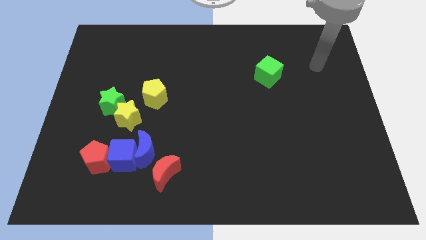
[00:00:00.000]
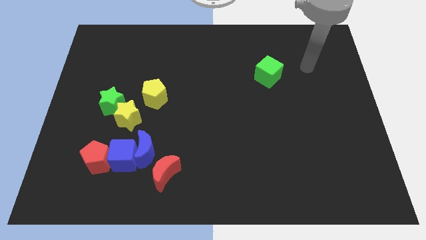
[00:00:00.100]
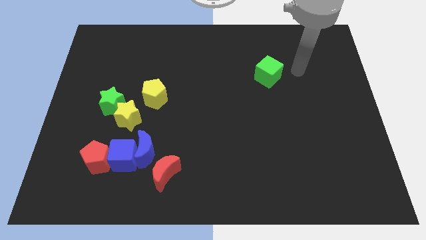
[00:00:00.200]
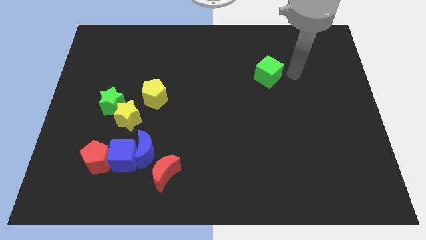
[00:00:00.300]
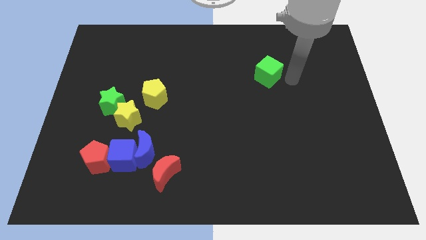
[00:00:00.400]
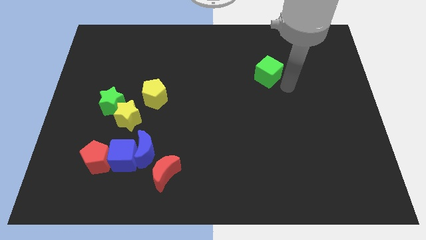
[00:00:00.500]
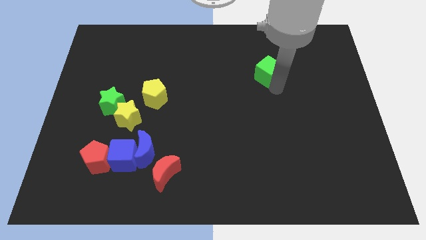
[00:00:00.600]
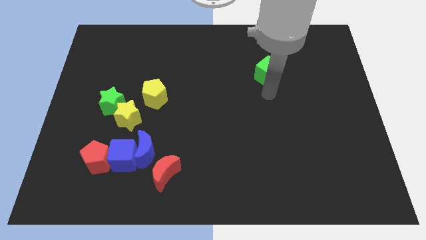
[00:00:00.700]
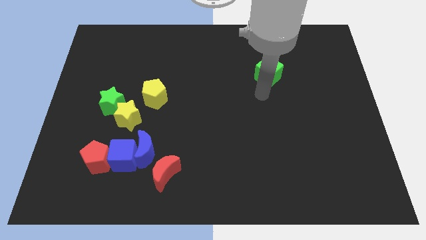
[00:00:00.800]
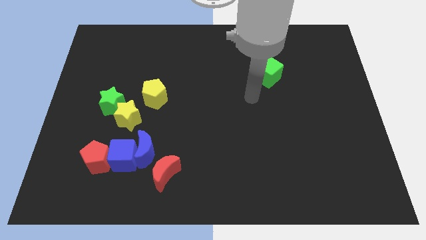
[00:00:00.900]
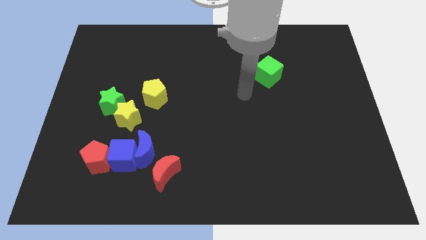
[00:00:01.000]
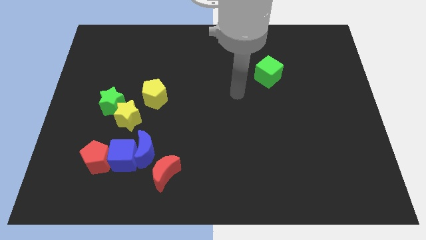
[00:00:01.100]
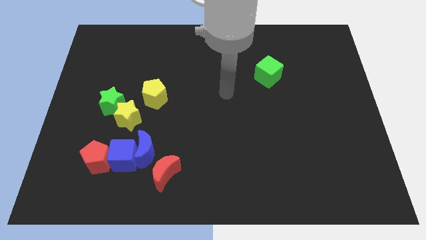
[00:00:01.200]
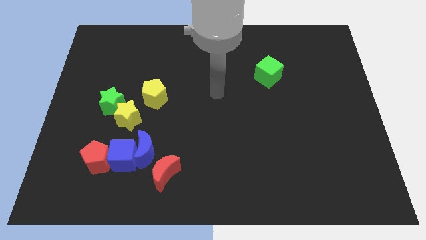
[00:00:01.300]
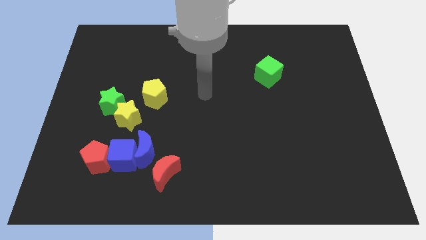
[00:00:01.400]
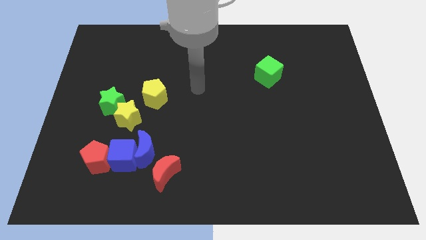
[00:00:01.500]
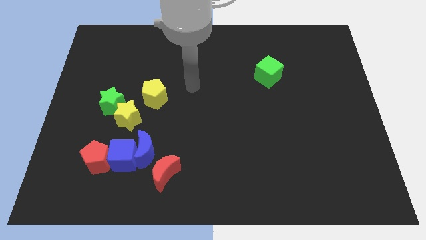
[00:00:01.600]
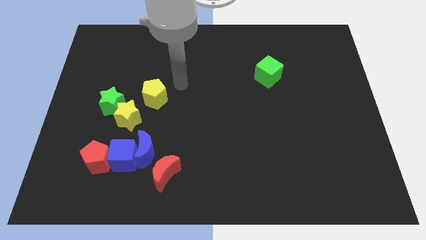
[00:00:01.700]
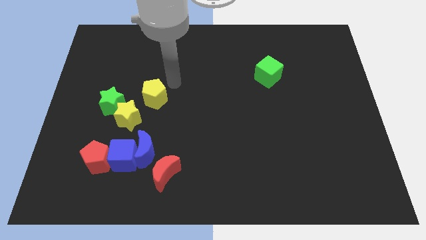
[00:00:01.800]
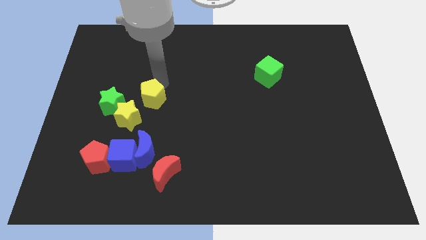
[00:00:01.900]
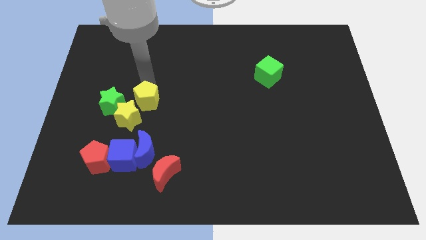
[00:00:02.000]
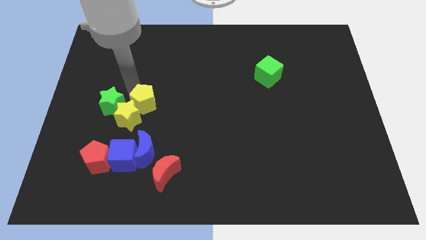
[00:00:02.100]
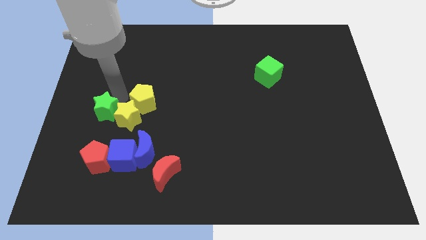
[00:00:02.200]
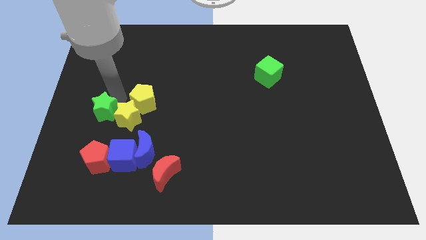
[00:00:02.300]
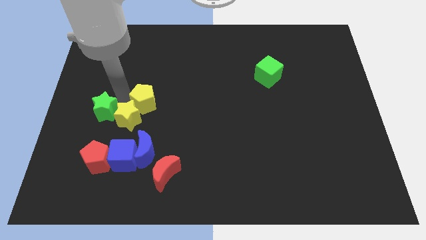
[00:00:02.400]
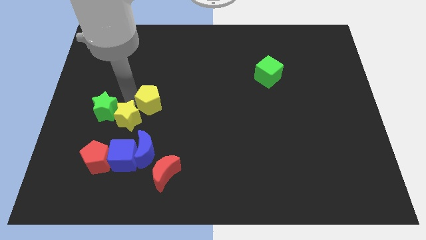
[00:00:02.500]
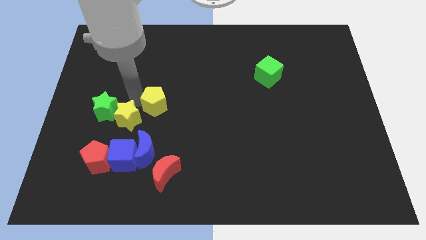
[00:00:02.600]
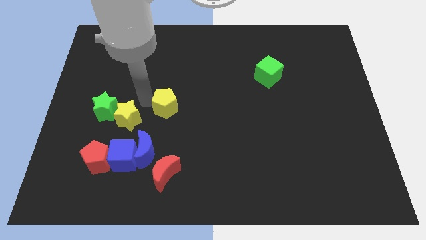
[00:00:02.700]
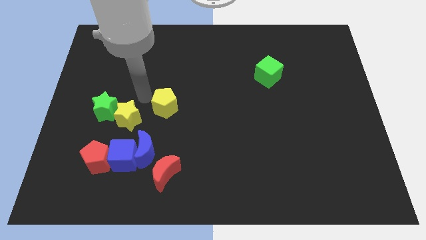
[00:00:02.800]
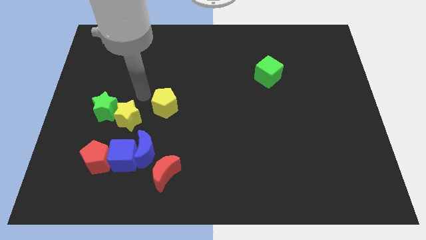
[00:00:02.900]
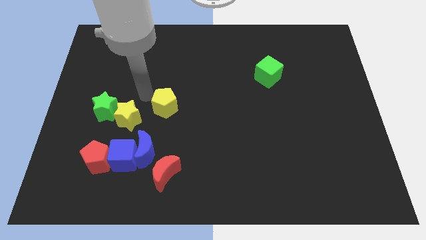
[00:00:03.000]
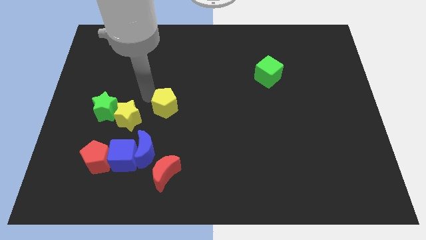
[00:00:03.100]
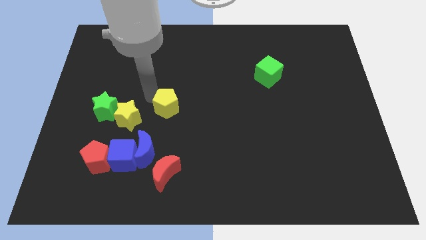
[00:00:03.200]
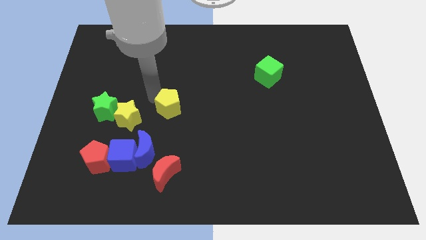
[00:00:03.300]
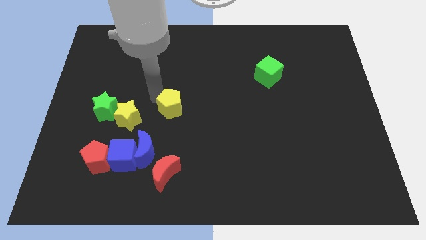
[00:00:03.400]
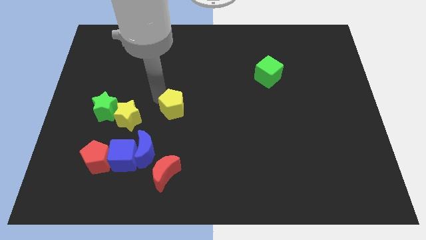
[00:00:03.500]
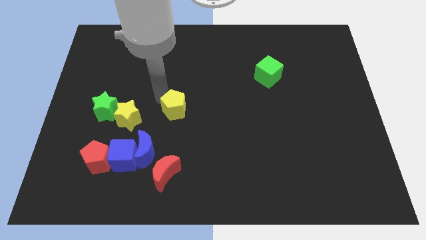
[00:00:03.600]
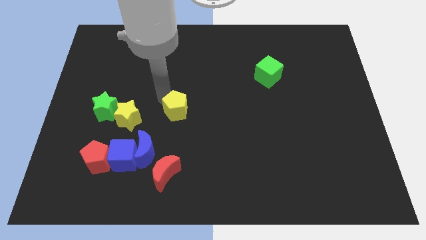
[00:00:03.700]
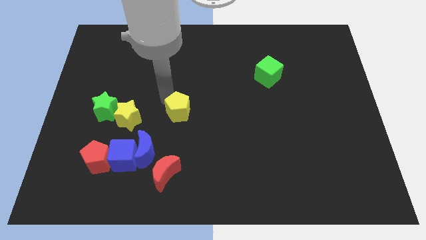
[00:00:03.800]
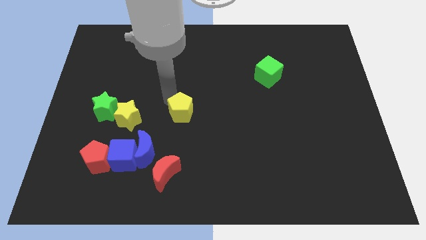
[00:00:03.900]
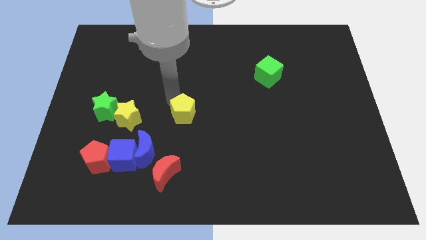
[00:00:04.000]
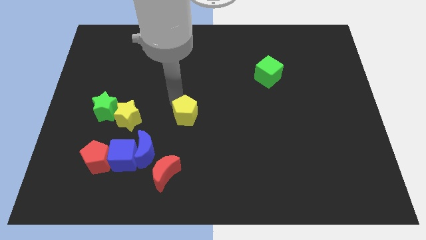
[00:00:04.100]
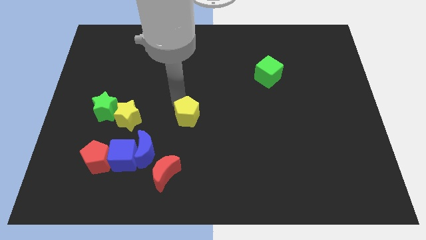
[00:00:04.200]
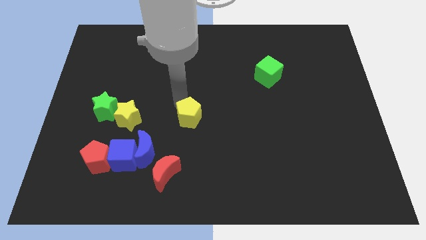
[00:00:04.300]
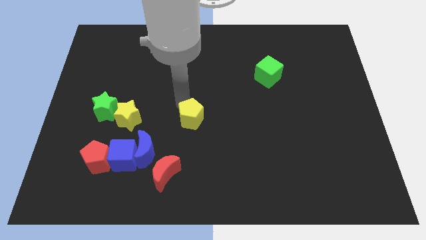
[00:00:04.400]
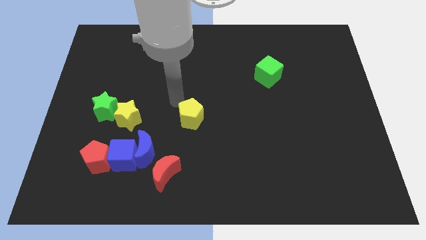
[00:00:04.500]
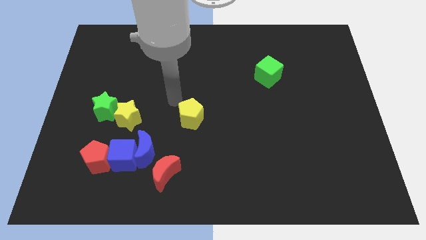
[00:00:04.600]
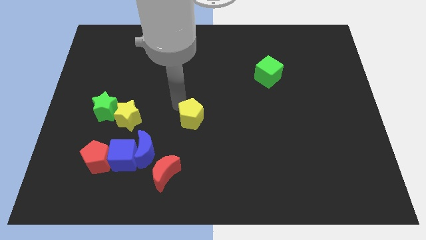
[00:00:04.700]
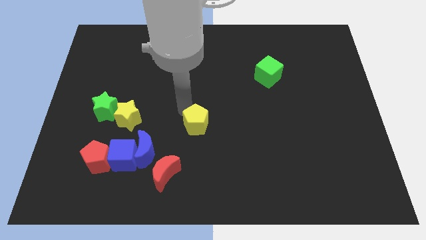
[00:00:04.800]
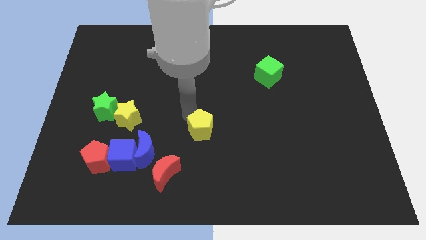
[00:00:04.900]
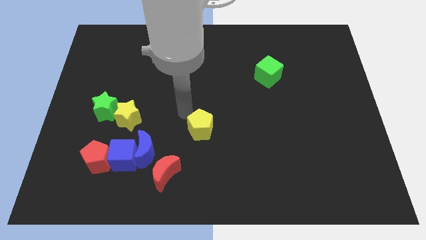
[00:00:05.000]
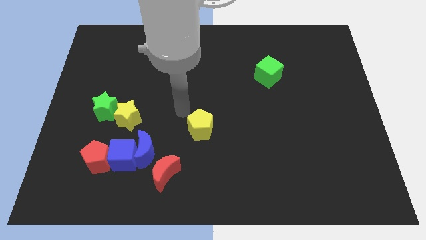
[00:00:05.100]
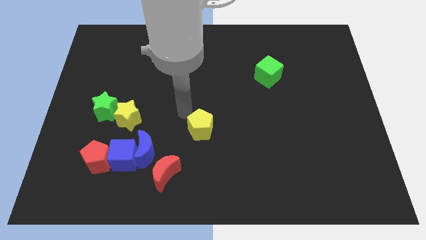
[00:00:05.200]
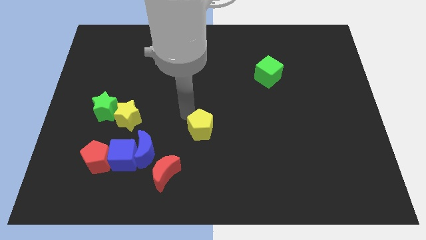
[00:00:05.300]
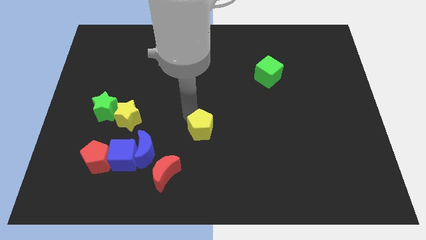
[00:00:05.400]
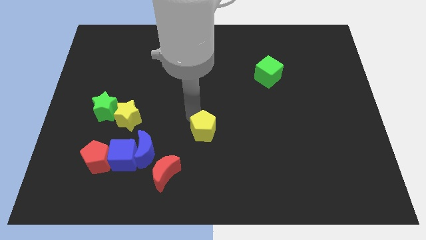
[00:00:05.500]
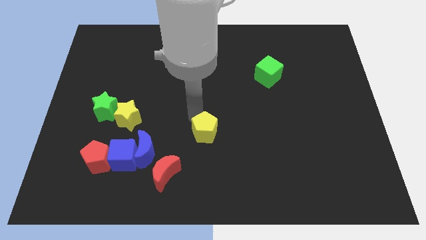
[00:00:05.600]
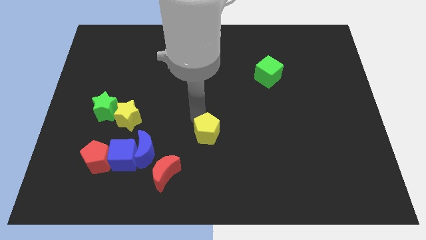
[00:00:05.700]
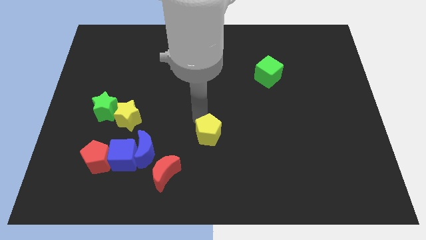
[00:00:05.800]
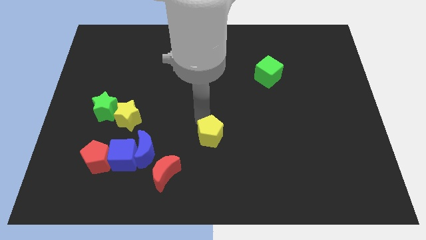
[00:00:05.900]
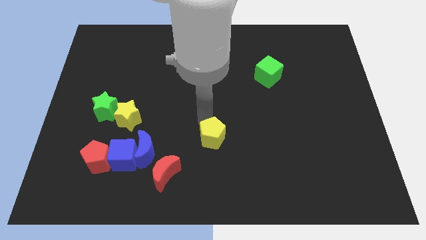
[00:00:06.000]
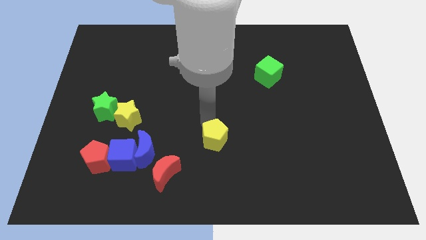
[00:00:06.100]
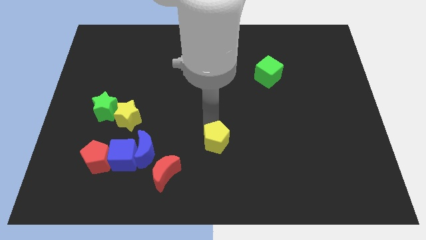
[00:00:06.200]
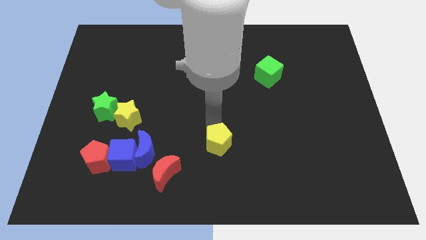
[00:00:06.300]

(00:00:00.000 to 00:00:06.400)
slide the yellow pentagon diagonally down and to the right

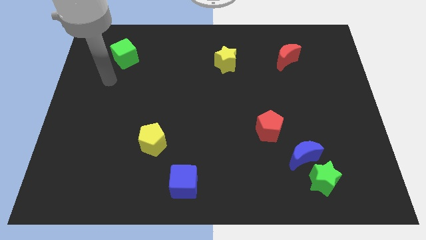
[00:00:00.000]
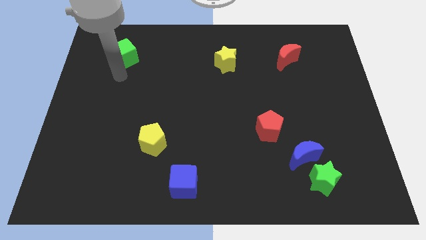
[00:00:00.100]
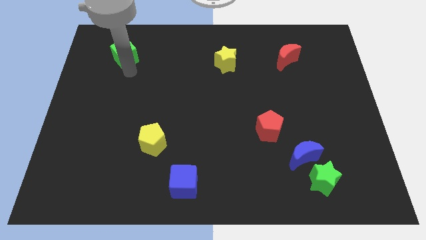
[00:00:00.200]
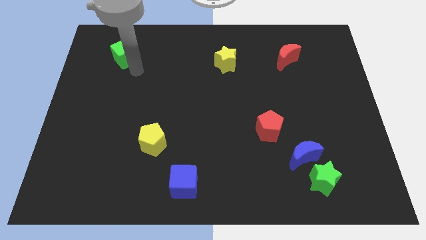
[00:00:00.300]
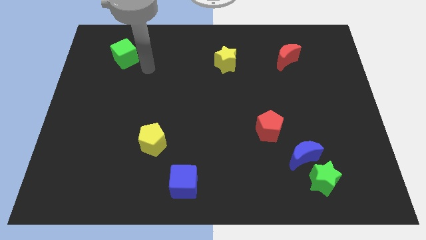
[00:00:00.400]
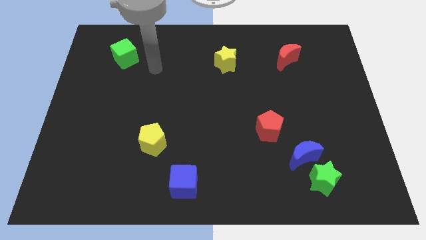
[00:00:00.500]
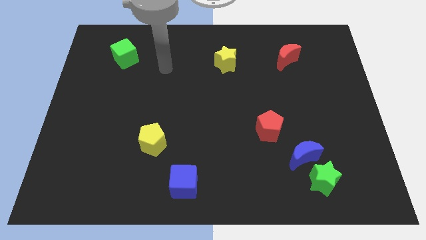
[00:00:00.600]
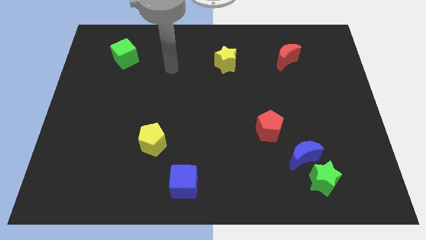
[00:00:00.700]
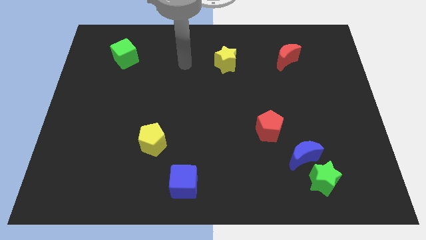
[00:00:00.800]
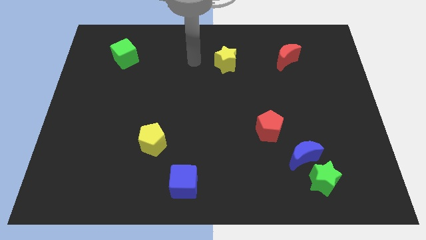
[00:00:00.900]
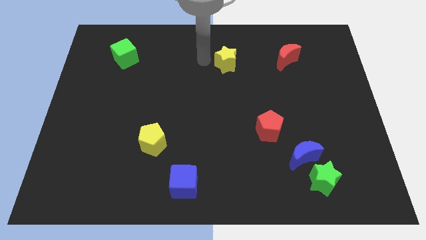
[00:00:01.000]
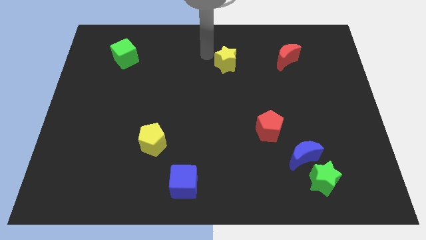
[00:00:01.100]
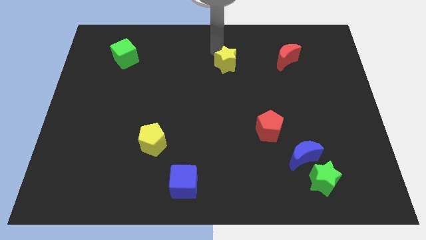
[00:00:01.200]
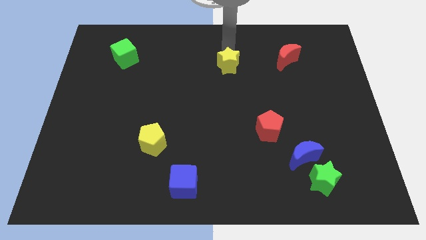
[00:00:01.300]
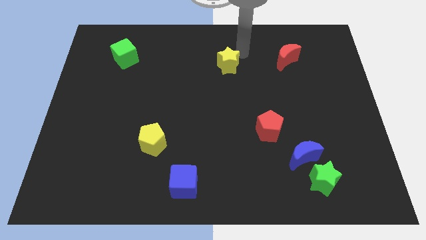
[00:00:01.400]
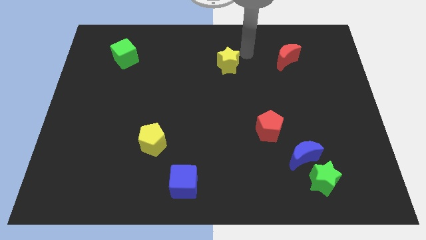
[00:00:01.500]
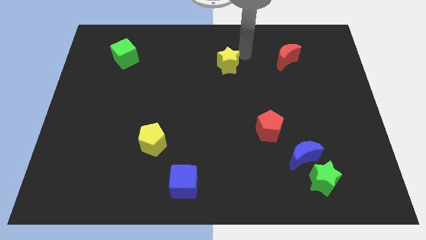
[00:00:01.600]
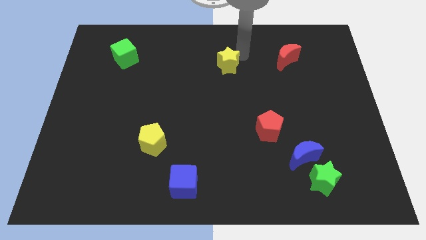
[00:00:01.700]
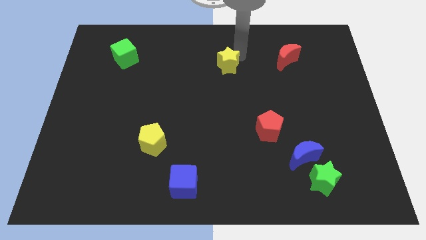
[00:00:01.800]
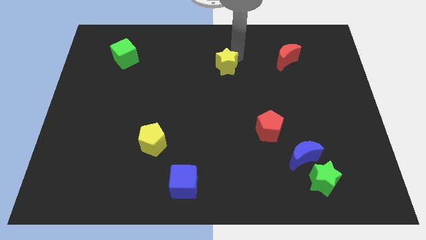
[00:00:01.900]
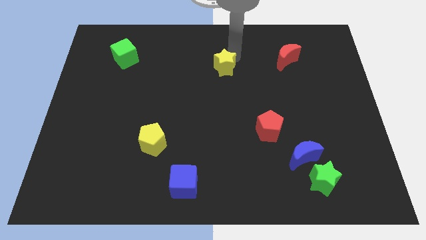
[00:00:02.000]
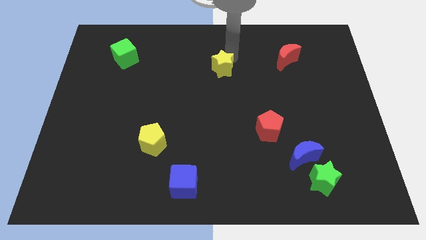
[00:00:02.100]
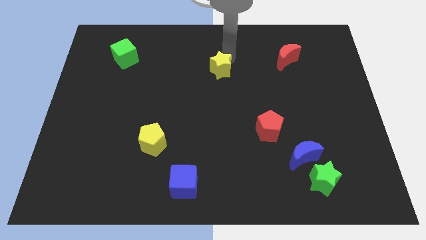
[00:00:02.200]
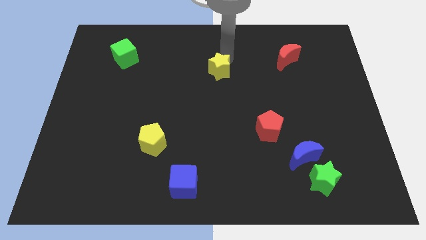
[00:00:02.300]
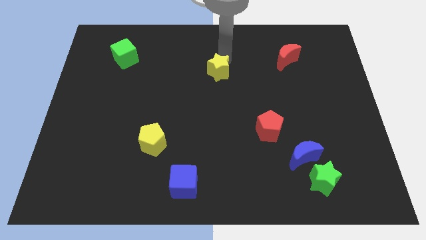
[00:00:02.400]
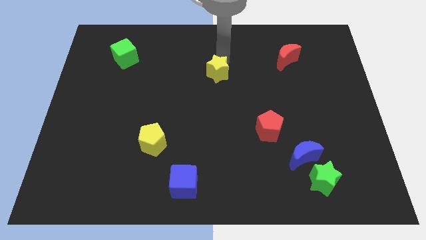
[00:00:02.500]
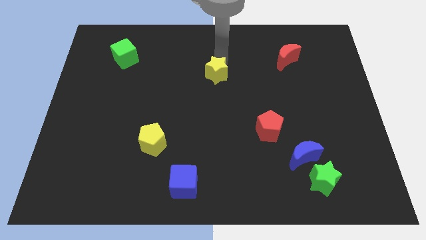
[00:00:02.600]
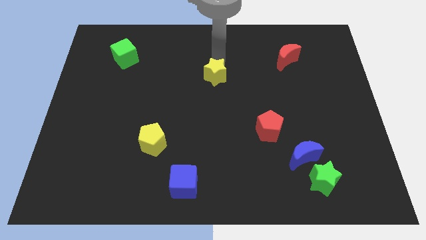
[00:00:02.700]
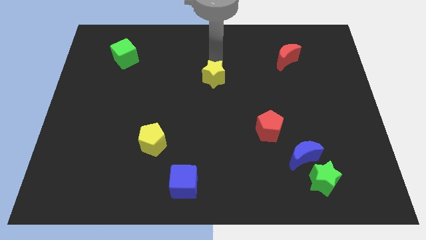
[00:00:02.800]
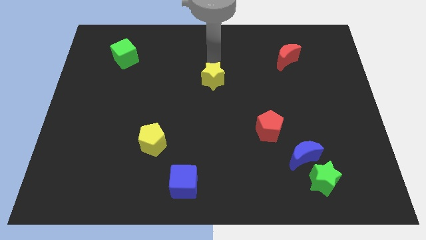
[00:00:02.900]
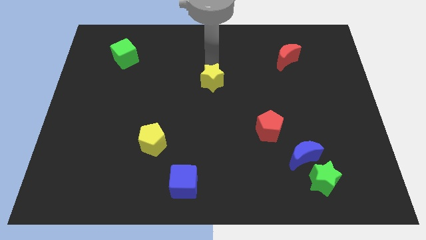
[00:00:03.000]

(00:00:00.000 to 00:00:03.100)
slightly slide the yellow star down and to the left diagonally
